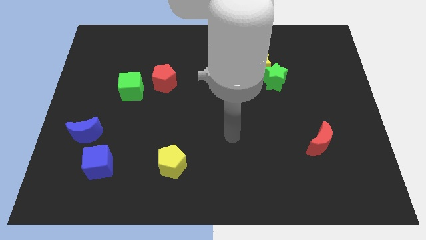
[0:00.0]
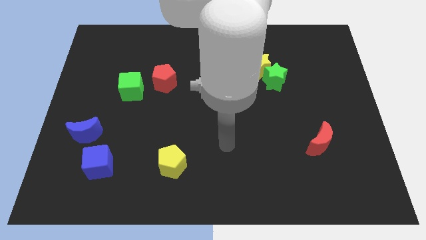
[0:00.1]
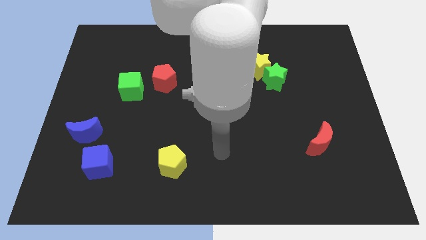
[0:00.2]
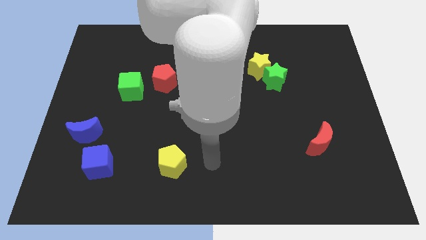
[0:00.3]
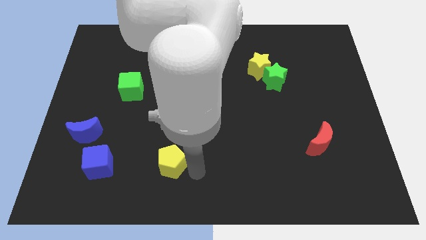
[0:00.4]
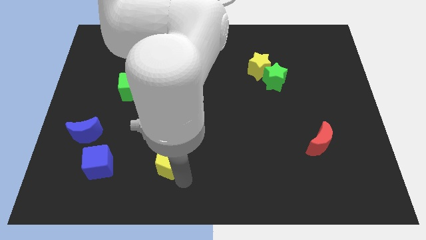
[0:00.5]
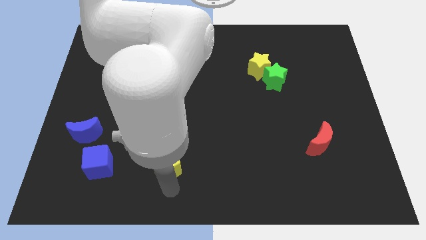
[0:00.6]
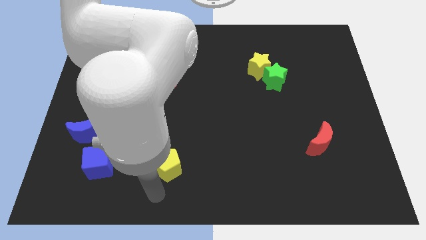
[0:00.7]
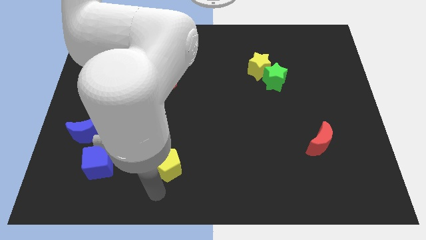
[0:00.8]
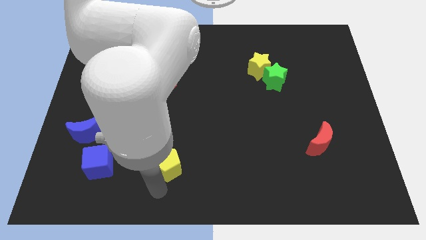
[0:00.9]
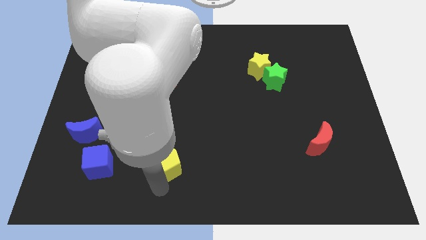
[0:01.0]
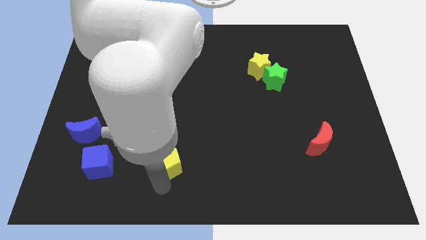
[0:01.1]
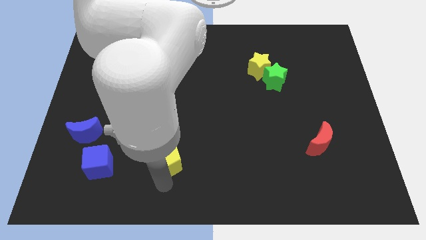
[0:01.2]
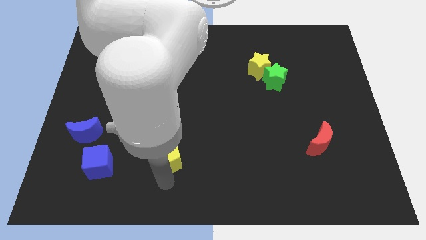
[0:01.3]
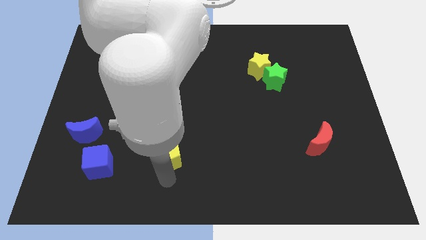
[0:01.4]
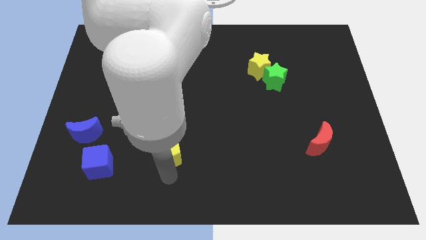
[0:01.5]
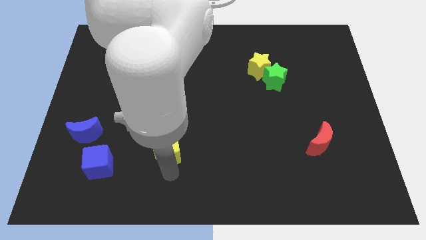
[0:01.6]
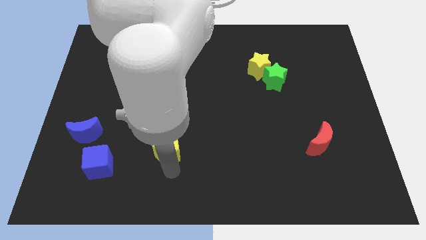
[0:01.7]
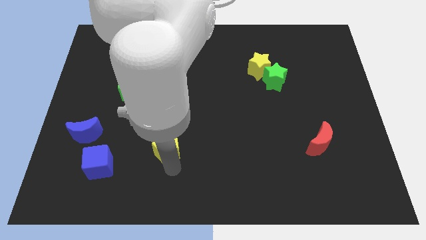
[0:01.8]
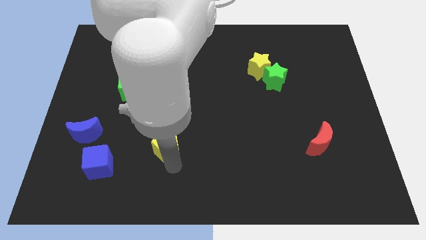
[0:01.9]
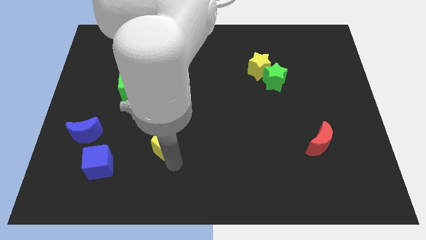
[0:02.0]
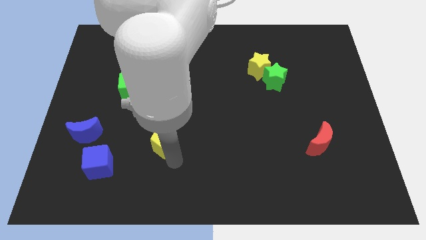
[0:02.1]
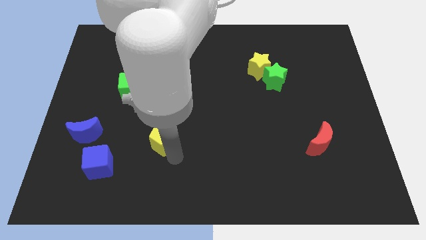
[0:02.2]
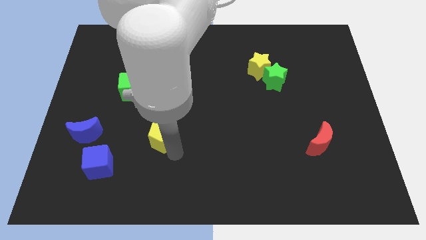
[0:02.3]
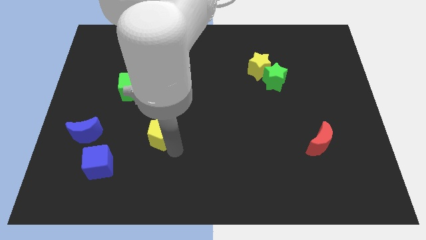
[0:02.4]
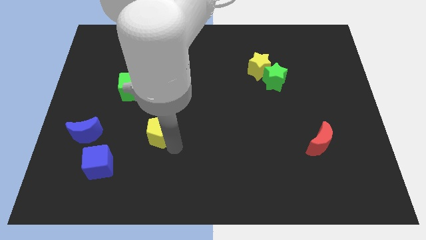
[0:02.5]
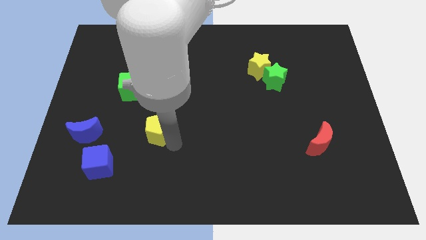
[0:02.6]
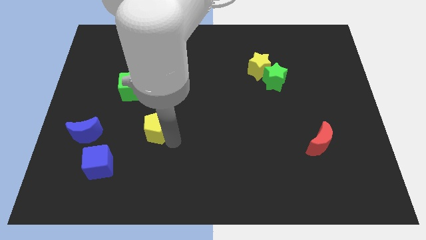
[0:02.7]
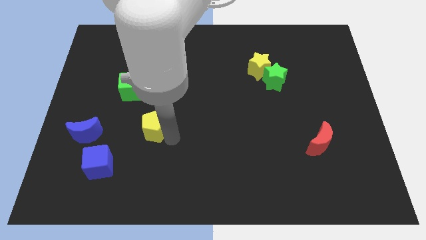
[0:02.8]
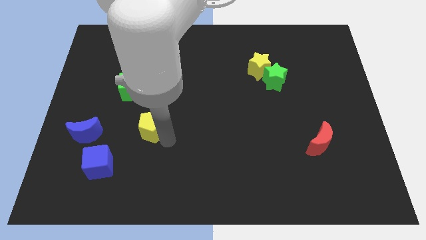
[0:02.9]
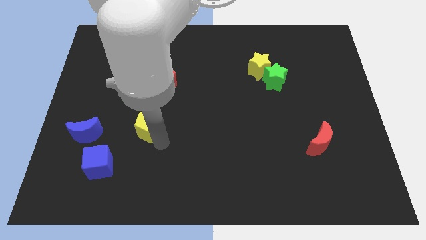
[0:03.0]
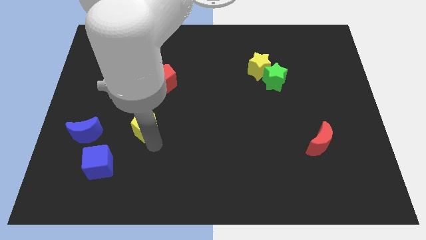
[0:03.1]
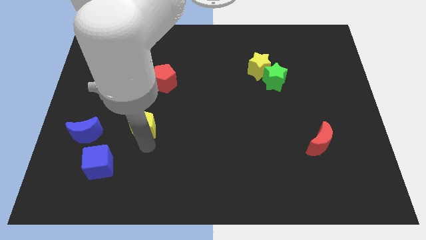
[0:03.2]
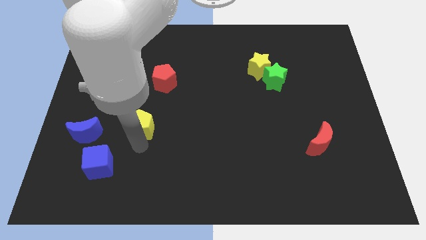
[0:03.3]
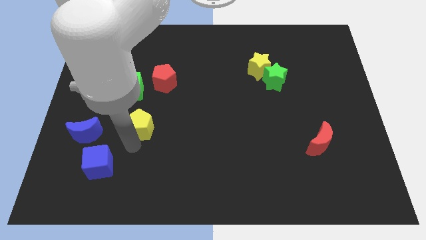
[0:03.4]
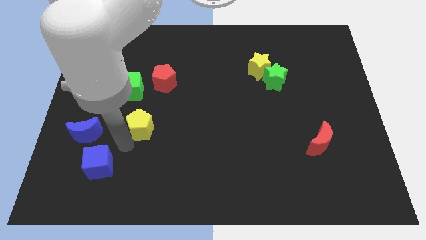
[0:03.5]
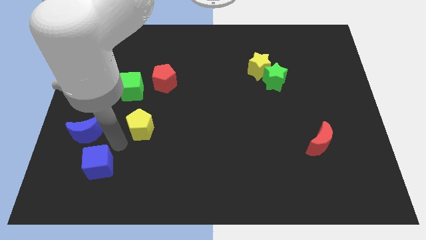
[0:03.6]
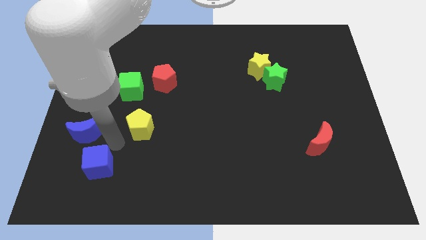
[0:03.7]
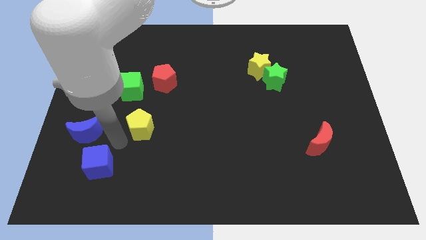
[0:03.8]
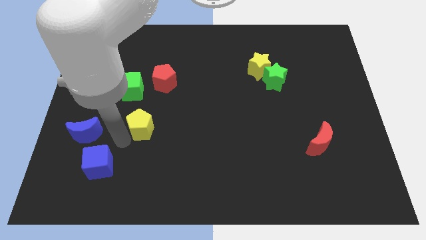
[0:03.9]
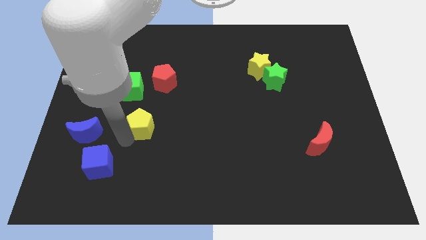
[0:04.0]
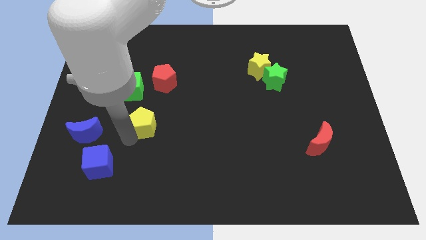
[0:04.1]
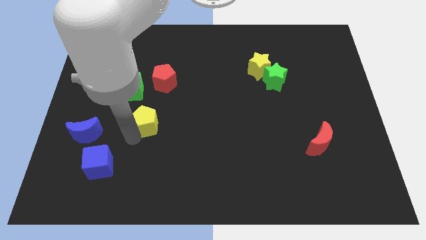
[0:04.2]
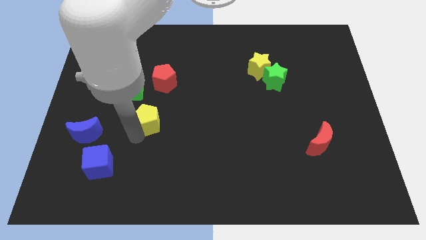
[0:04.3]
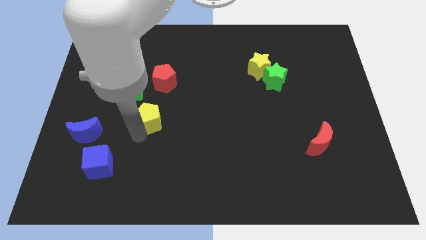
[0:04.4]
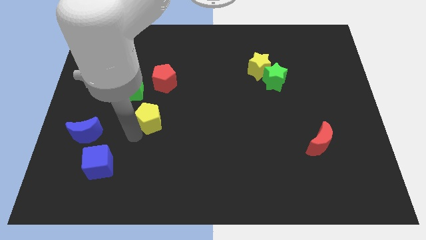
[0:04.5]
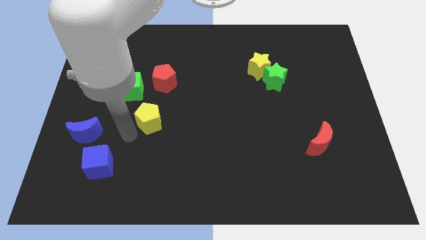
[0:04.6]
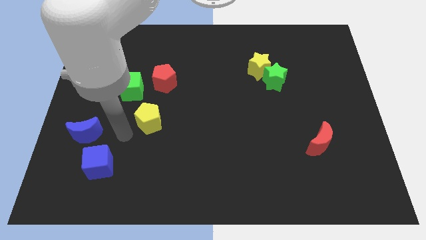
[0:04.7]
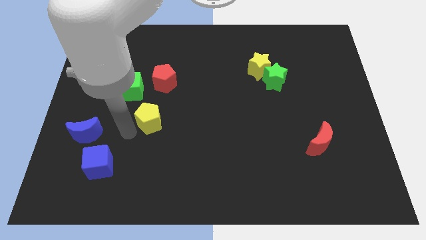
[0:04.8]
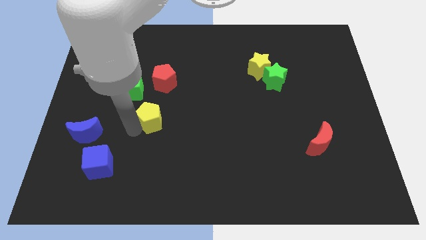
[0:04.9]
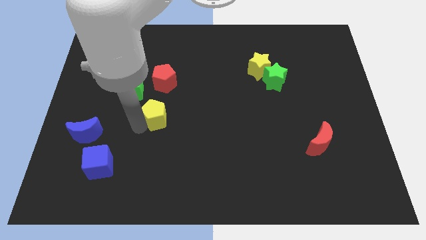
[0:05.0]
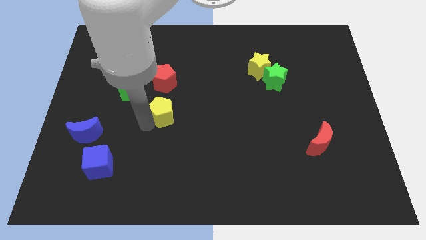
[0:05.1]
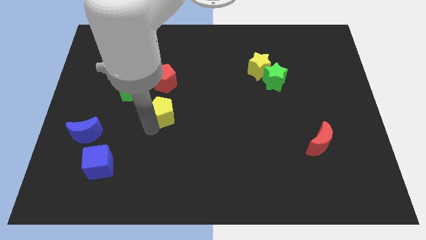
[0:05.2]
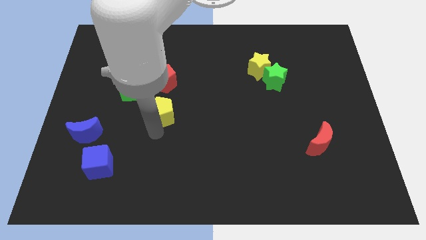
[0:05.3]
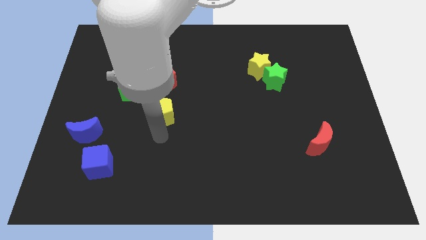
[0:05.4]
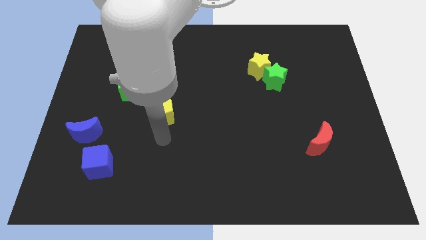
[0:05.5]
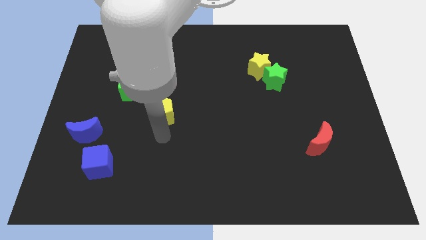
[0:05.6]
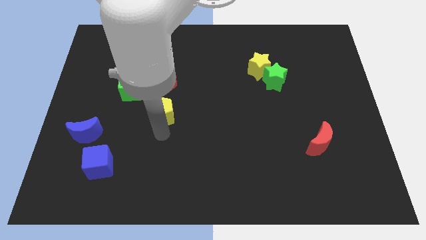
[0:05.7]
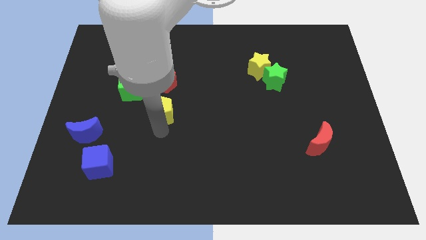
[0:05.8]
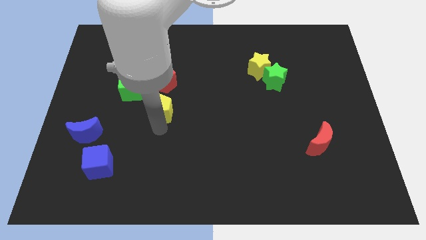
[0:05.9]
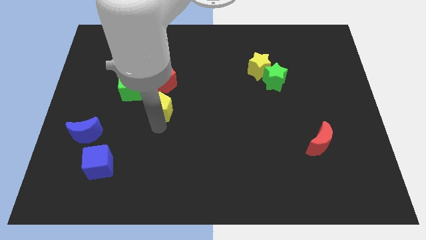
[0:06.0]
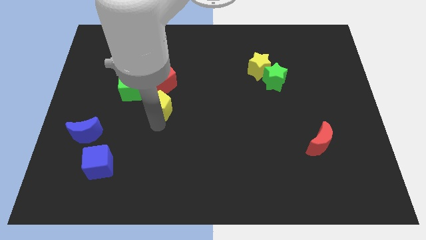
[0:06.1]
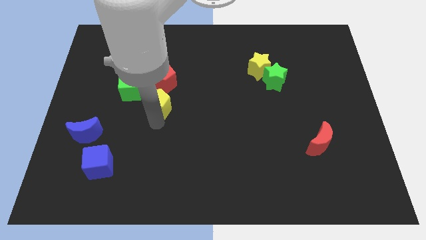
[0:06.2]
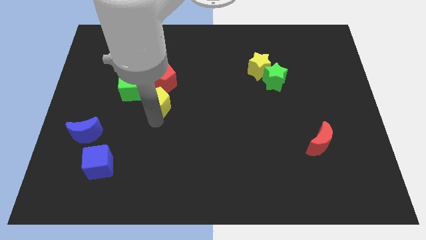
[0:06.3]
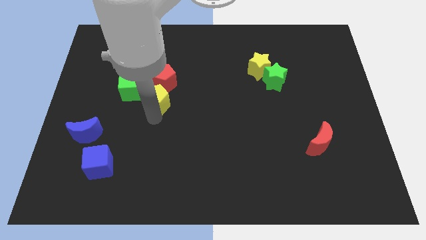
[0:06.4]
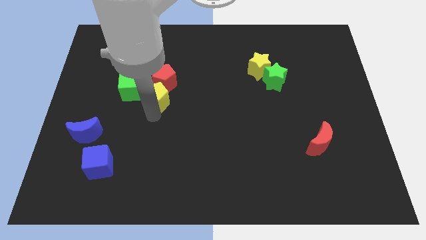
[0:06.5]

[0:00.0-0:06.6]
push the yellow pentagon close to the red pentagon

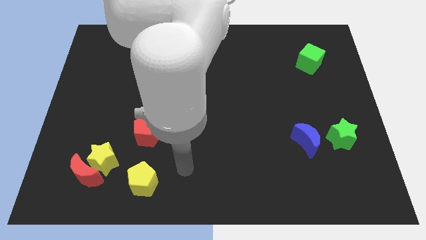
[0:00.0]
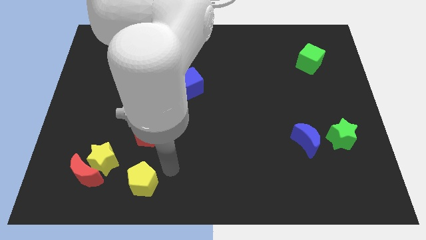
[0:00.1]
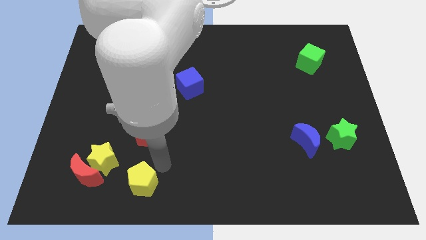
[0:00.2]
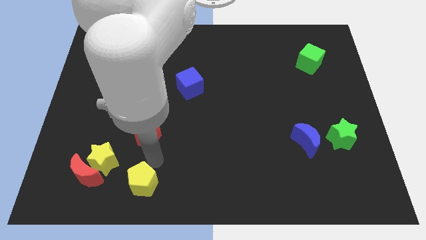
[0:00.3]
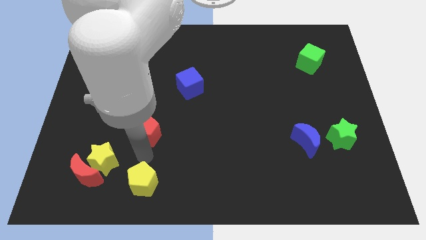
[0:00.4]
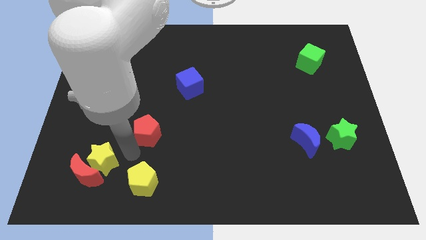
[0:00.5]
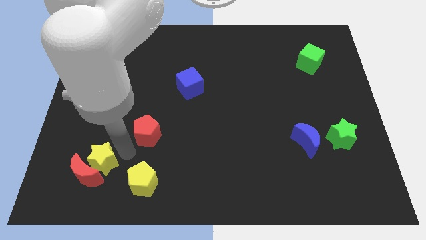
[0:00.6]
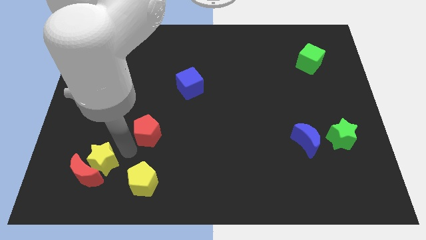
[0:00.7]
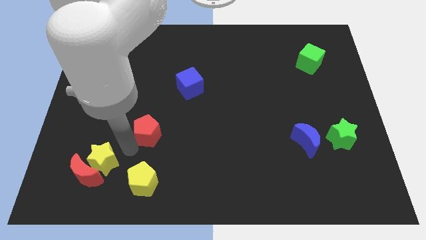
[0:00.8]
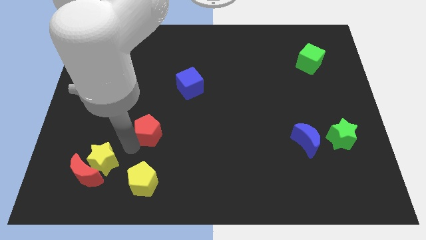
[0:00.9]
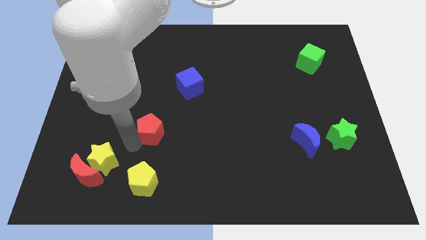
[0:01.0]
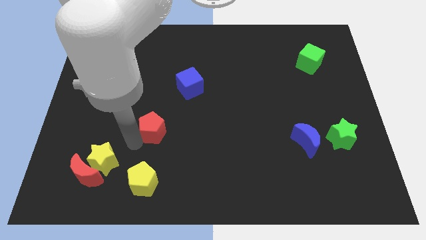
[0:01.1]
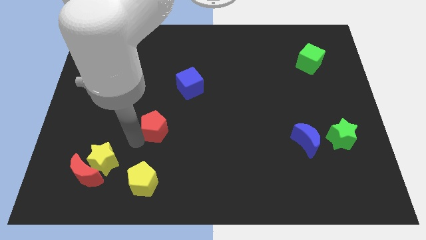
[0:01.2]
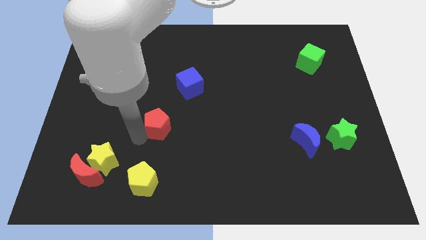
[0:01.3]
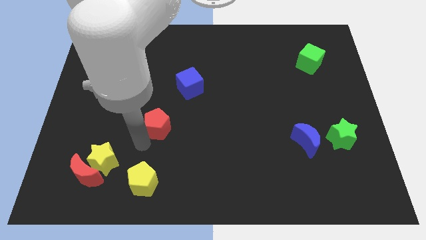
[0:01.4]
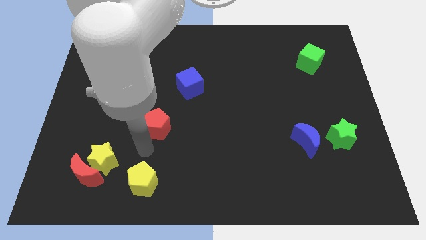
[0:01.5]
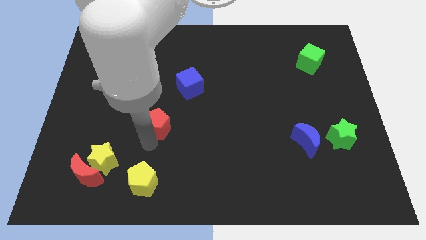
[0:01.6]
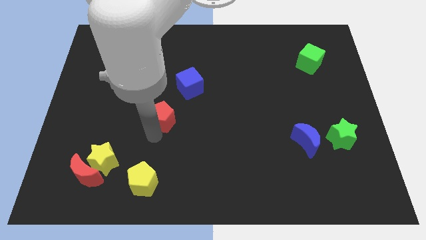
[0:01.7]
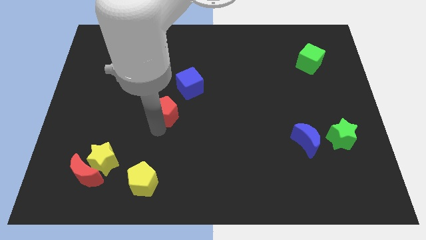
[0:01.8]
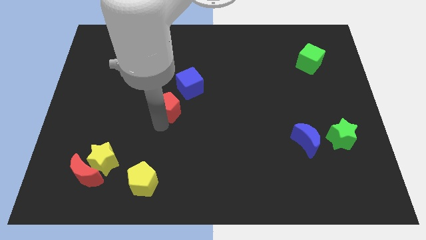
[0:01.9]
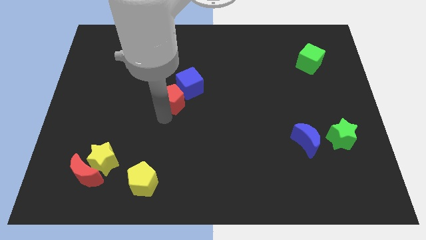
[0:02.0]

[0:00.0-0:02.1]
push the red pentagon next to the blue cube
